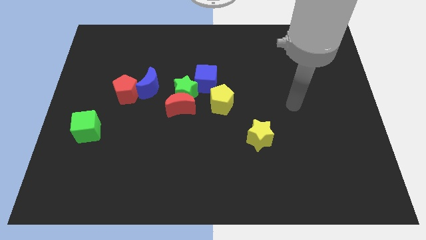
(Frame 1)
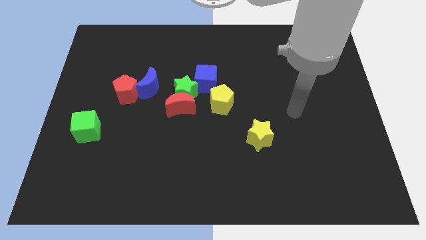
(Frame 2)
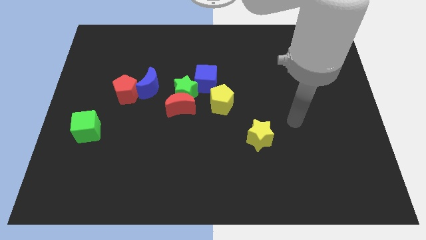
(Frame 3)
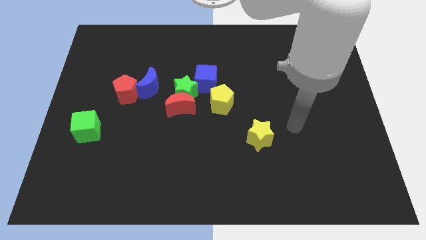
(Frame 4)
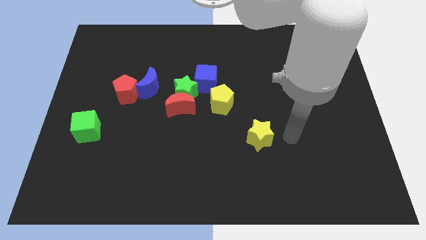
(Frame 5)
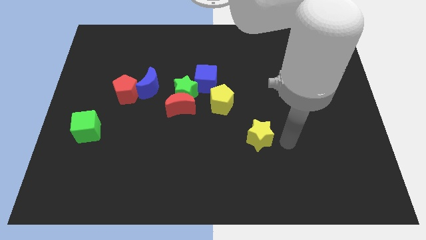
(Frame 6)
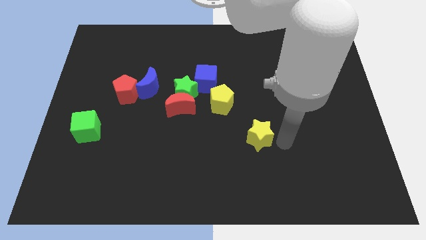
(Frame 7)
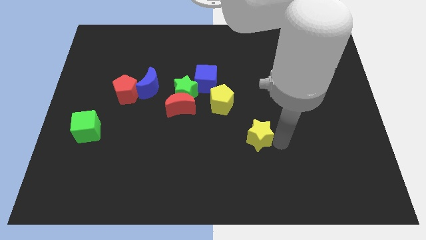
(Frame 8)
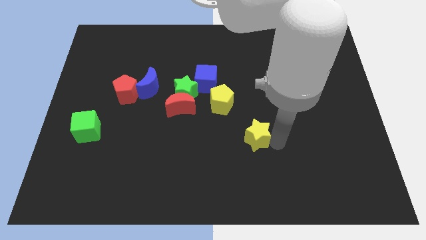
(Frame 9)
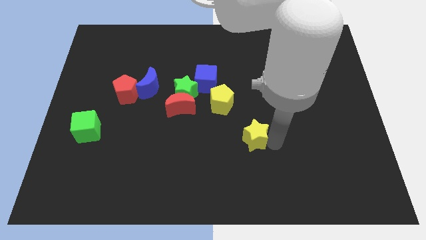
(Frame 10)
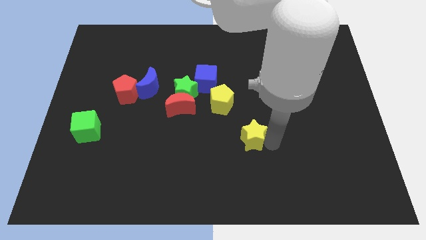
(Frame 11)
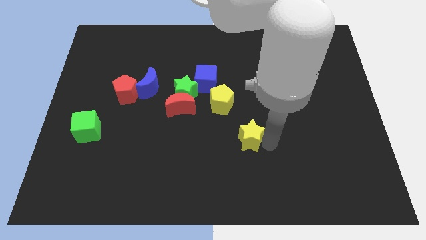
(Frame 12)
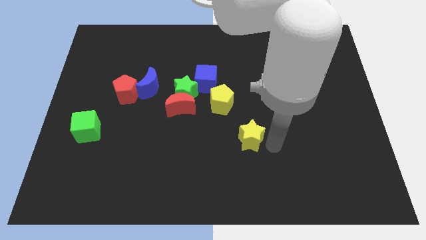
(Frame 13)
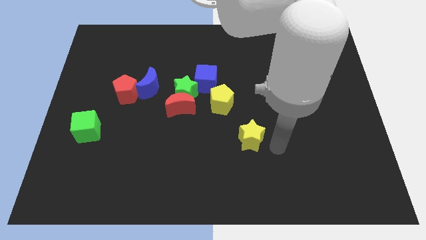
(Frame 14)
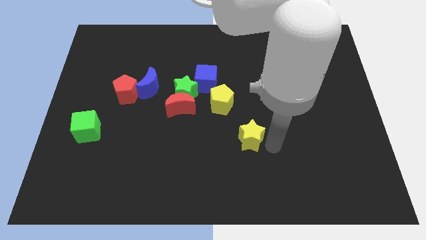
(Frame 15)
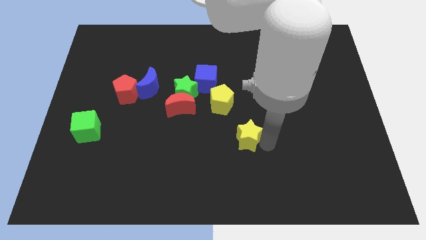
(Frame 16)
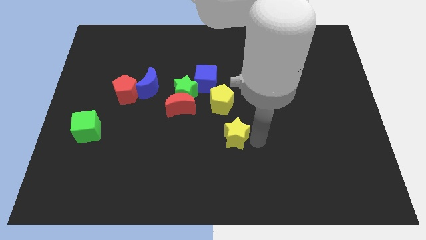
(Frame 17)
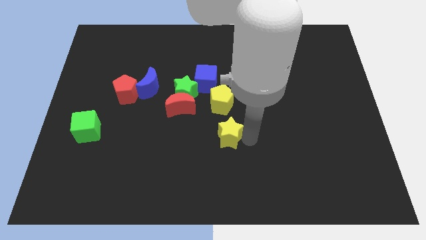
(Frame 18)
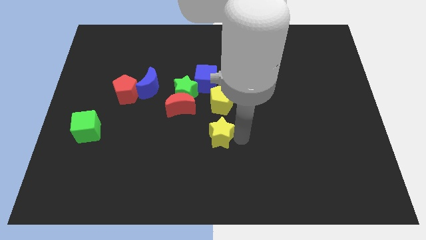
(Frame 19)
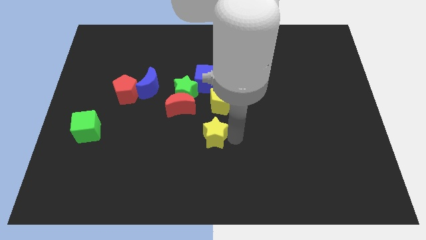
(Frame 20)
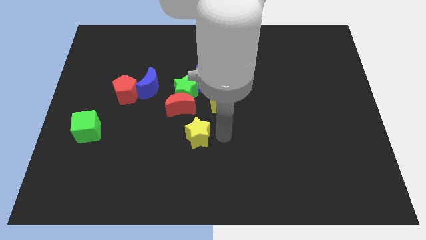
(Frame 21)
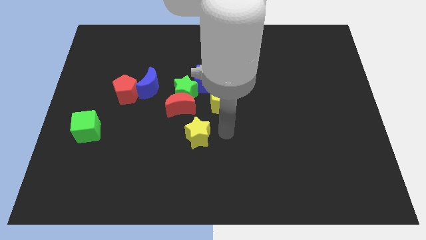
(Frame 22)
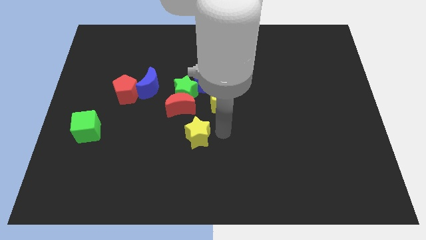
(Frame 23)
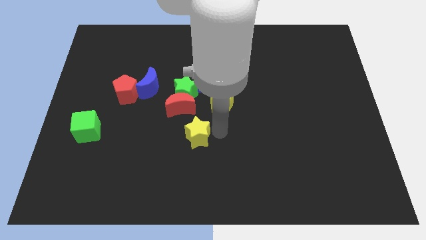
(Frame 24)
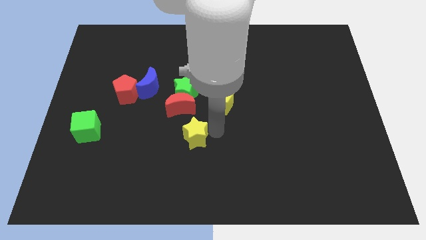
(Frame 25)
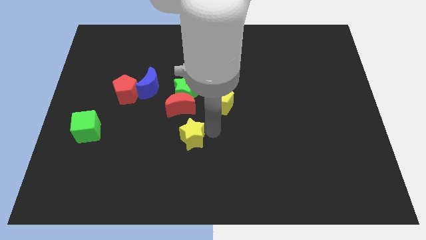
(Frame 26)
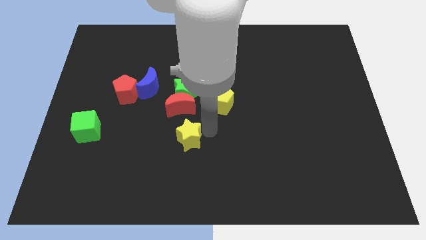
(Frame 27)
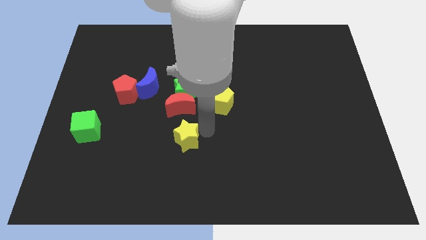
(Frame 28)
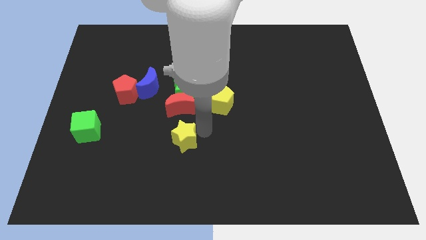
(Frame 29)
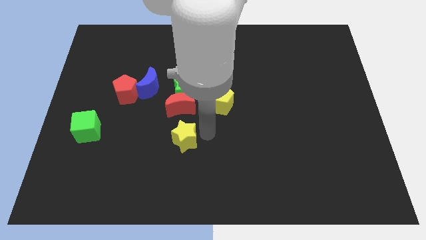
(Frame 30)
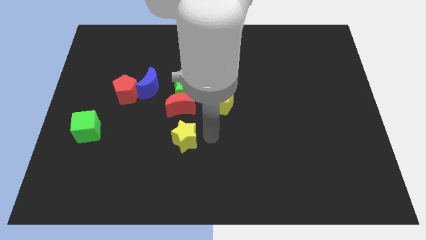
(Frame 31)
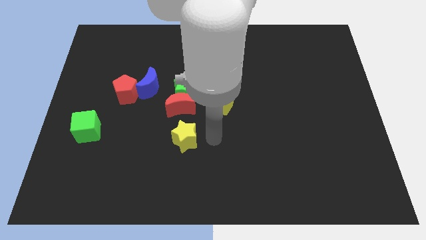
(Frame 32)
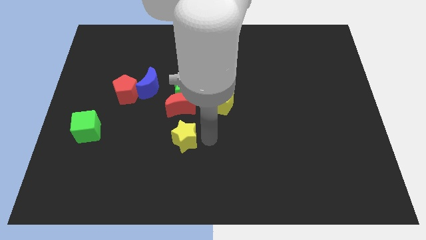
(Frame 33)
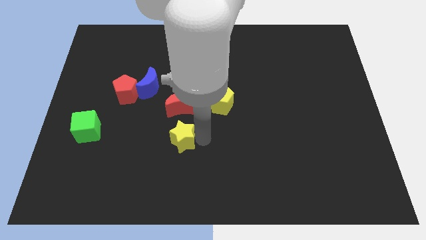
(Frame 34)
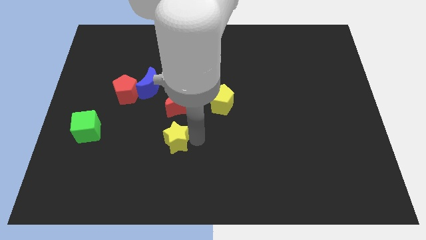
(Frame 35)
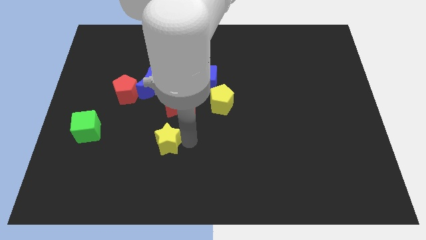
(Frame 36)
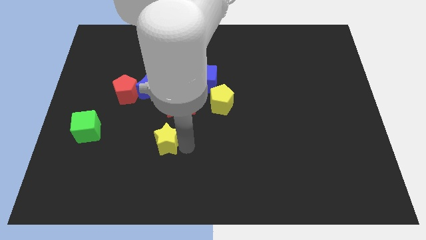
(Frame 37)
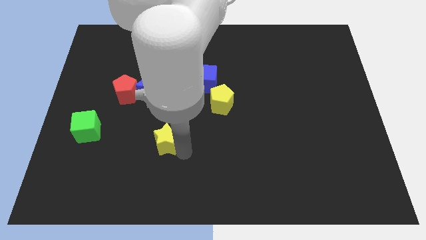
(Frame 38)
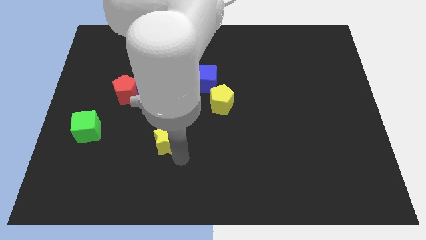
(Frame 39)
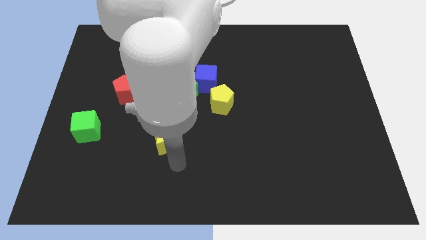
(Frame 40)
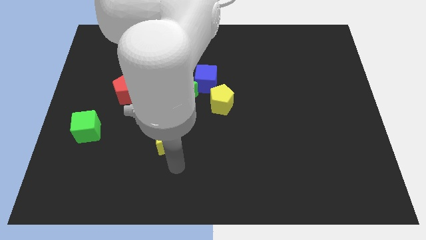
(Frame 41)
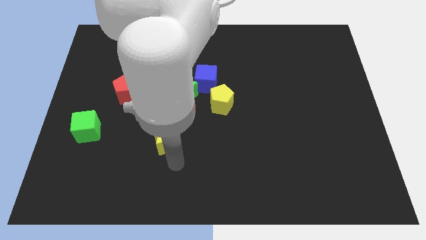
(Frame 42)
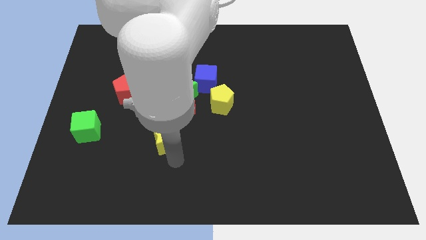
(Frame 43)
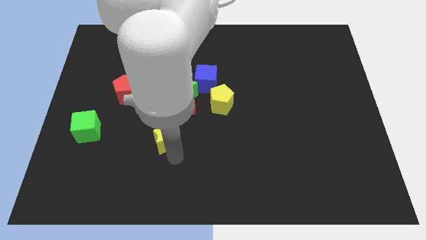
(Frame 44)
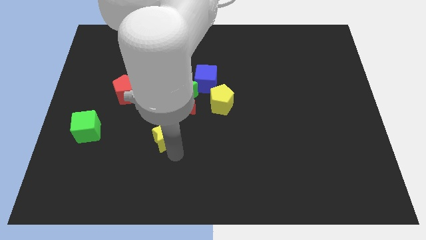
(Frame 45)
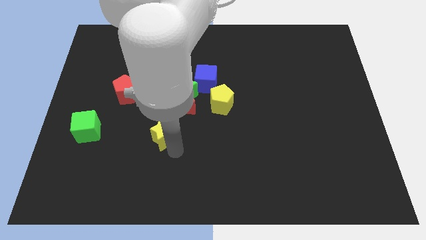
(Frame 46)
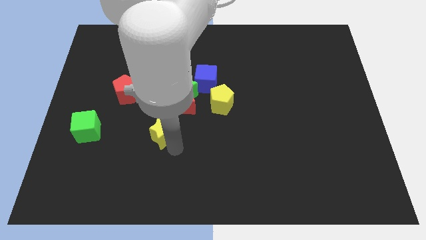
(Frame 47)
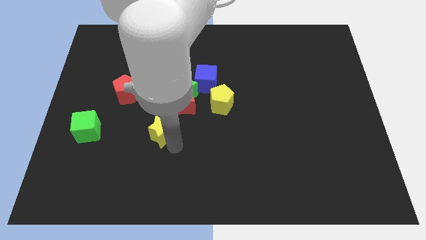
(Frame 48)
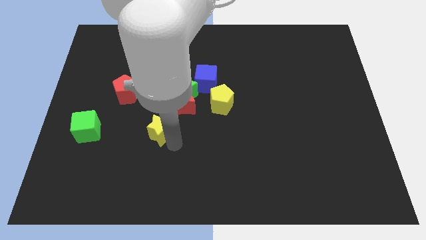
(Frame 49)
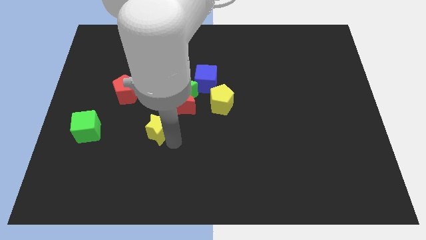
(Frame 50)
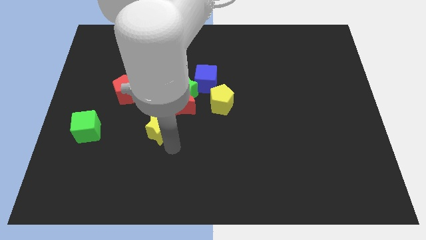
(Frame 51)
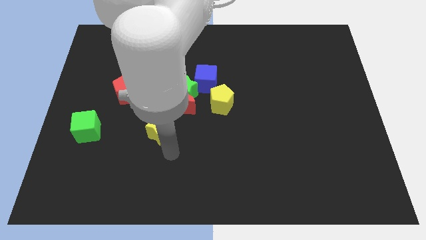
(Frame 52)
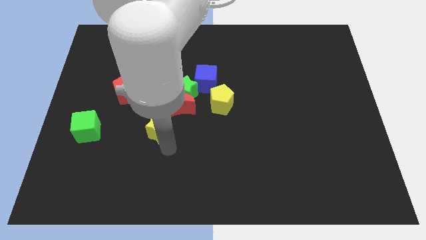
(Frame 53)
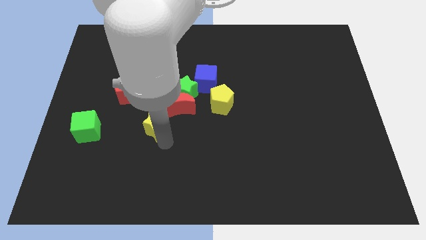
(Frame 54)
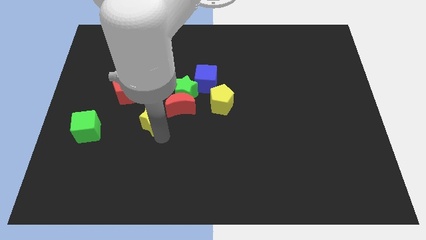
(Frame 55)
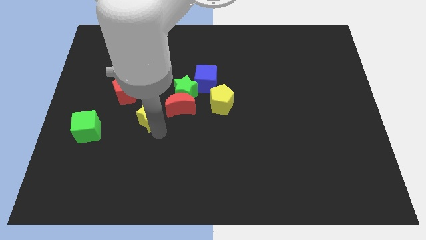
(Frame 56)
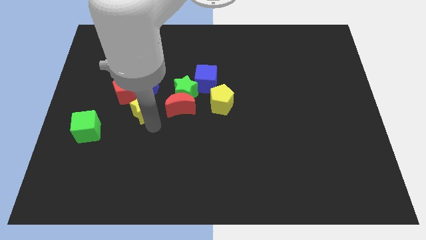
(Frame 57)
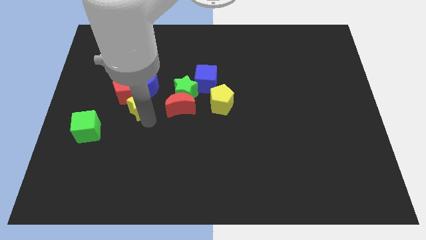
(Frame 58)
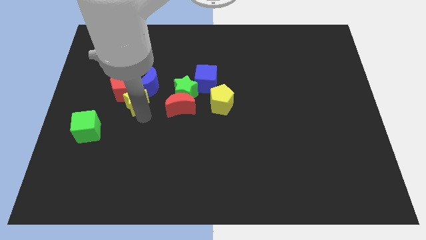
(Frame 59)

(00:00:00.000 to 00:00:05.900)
slide the yellow star close to the blue moon

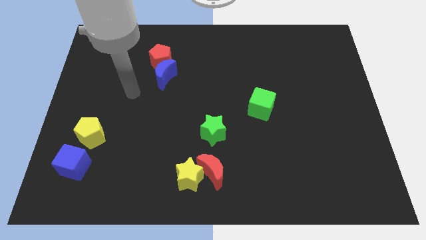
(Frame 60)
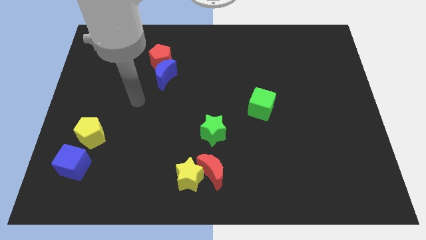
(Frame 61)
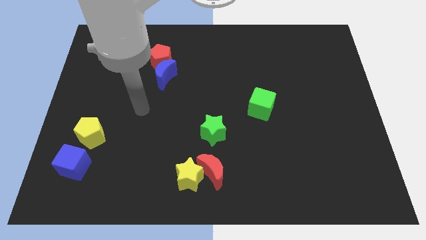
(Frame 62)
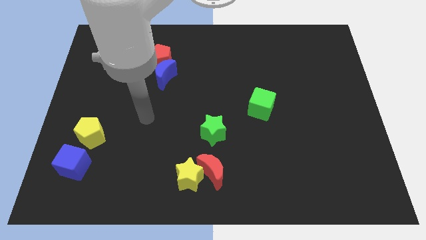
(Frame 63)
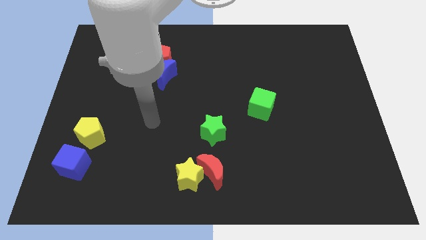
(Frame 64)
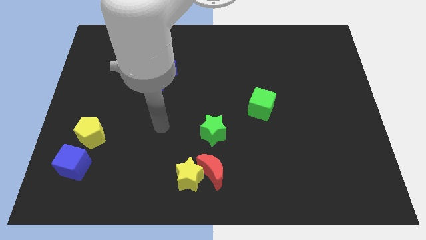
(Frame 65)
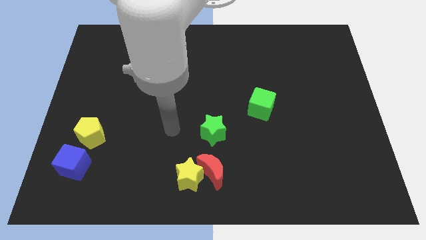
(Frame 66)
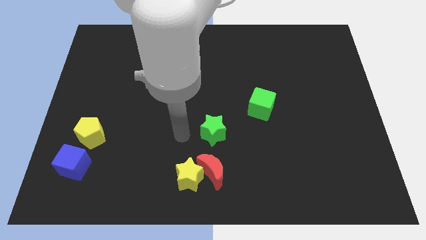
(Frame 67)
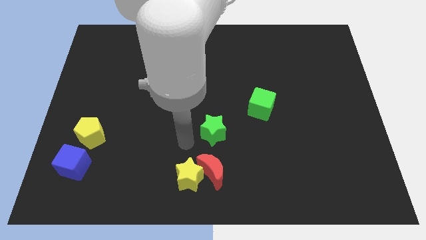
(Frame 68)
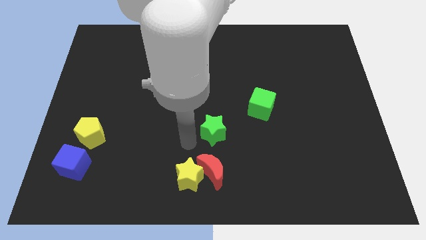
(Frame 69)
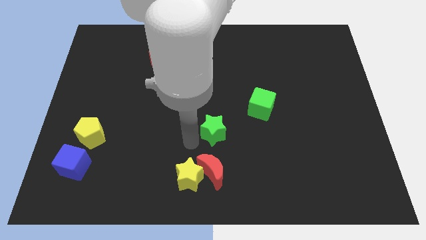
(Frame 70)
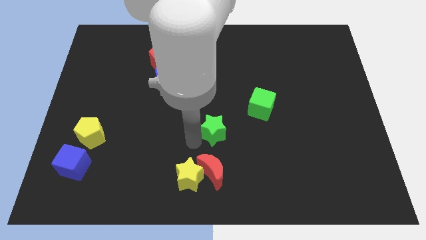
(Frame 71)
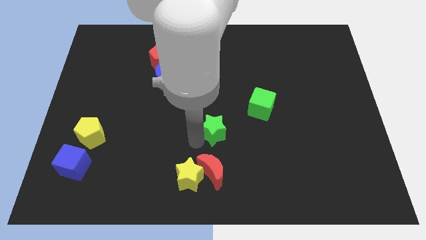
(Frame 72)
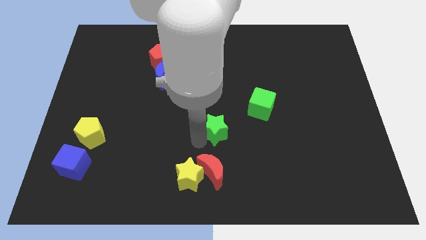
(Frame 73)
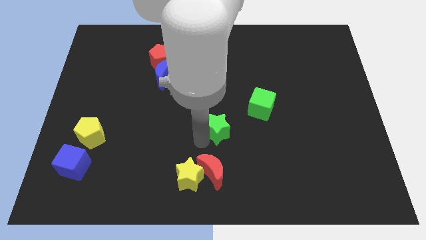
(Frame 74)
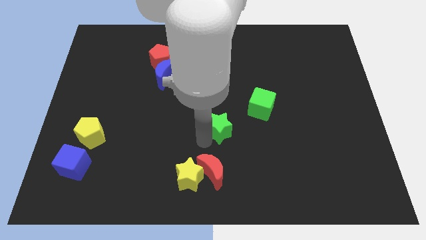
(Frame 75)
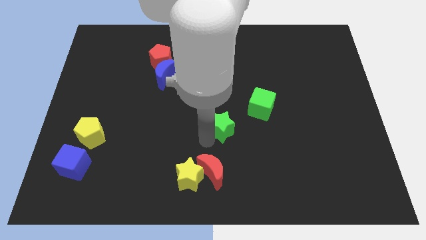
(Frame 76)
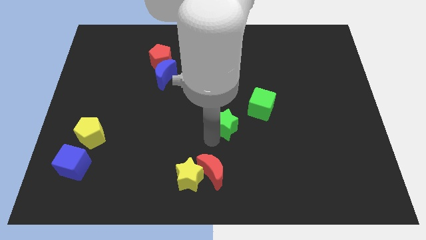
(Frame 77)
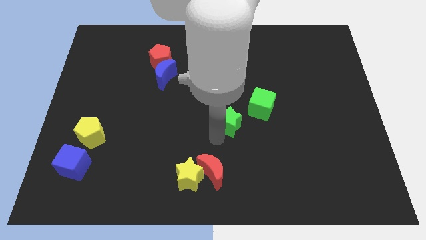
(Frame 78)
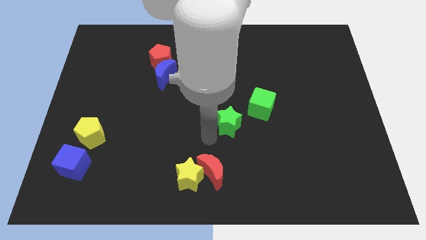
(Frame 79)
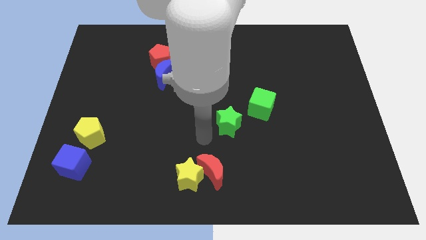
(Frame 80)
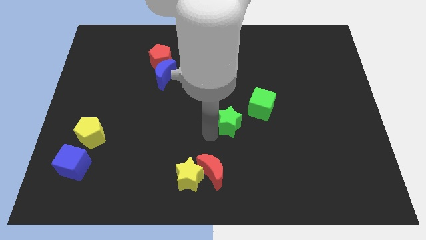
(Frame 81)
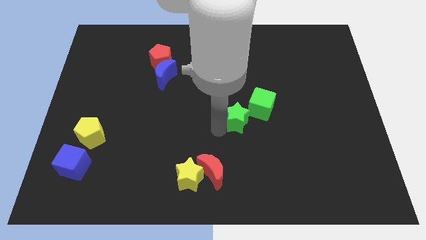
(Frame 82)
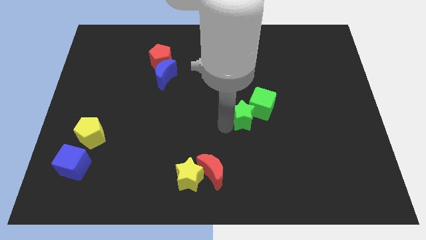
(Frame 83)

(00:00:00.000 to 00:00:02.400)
put the green star close to the green cube
